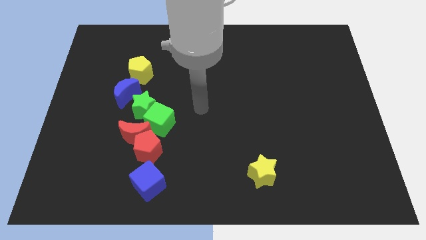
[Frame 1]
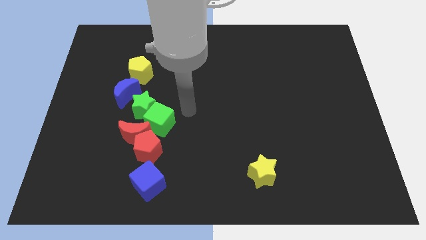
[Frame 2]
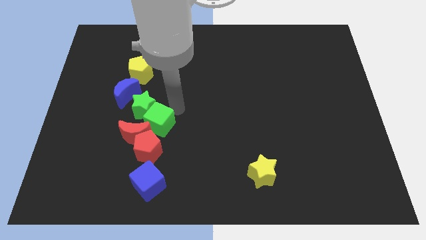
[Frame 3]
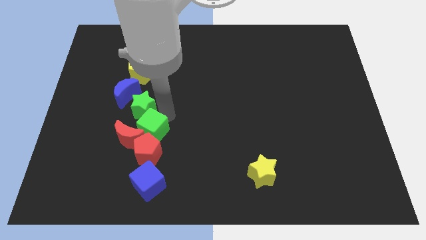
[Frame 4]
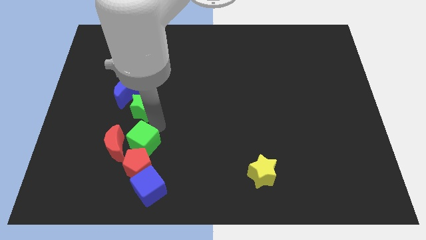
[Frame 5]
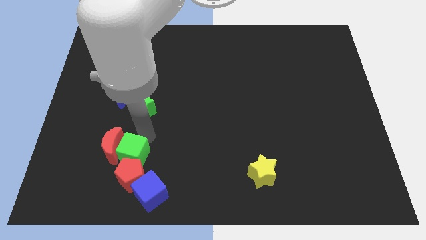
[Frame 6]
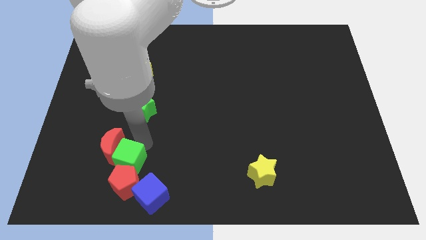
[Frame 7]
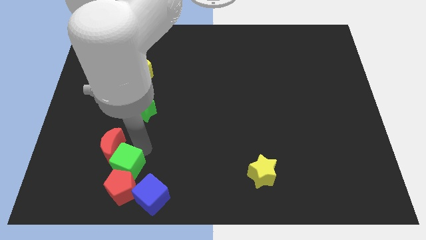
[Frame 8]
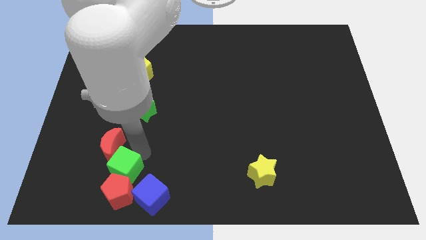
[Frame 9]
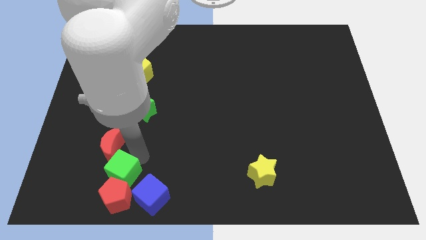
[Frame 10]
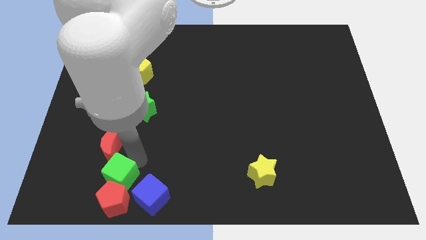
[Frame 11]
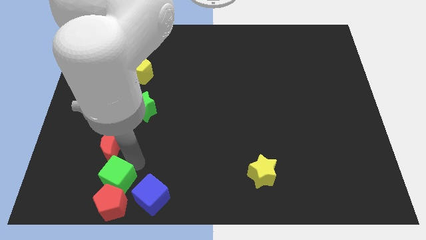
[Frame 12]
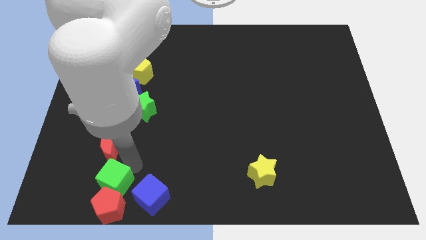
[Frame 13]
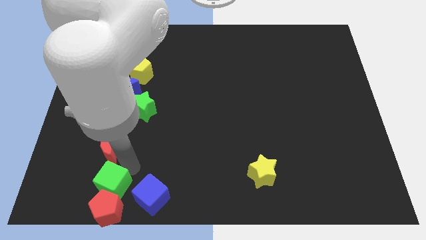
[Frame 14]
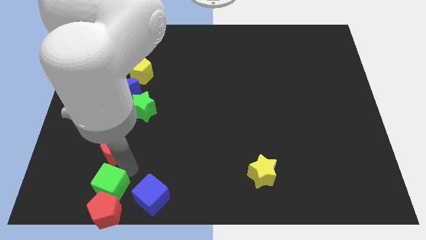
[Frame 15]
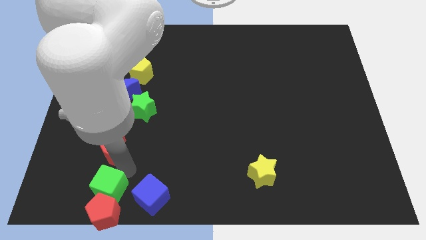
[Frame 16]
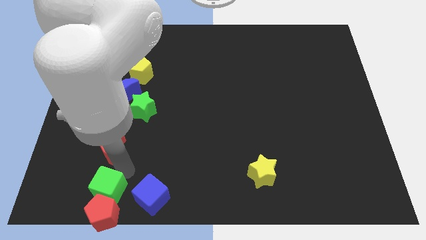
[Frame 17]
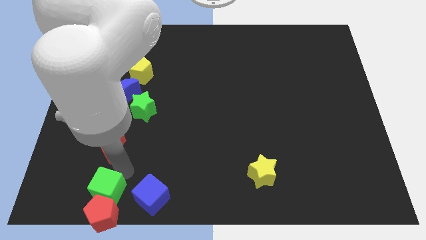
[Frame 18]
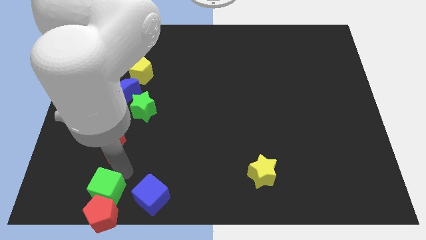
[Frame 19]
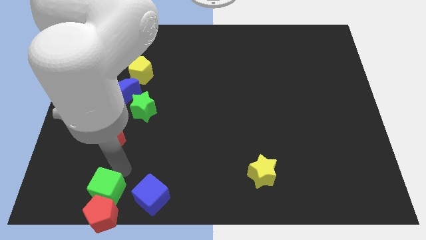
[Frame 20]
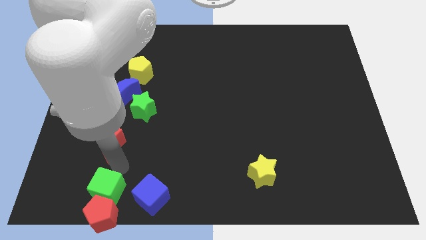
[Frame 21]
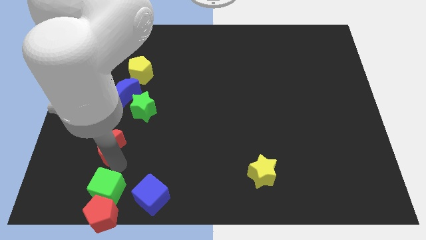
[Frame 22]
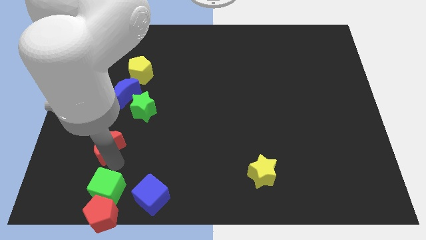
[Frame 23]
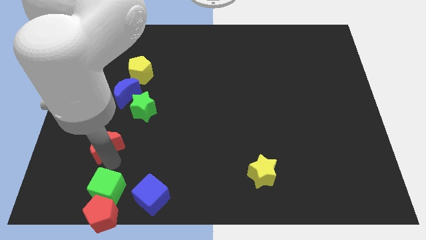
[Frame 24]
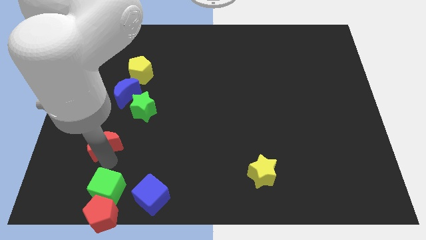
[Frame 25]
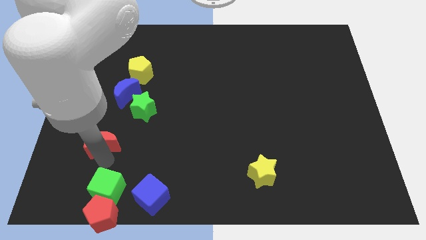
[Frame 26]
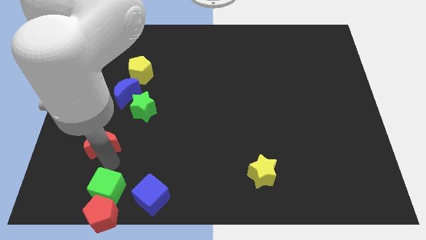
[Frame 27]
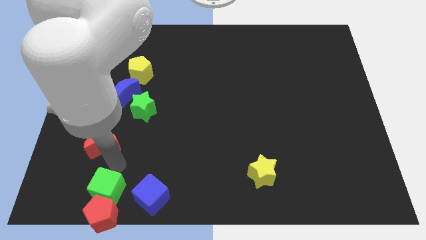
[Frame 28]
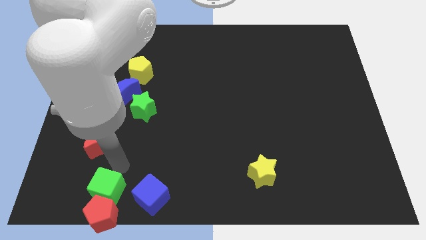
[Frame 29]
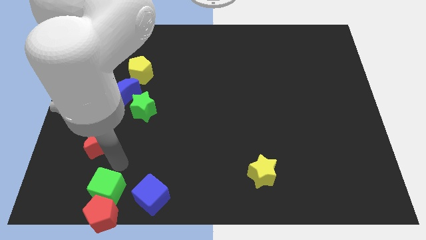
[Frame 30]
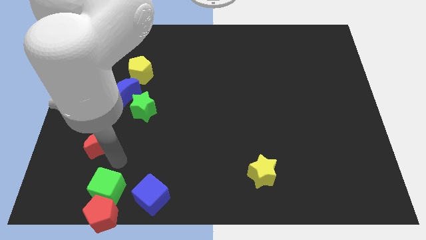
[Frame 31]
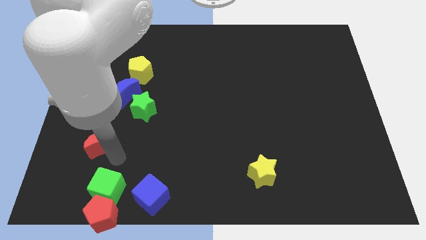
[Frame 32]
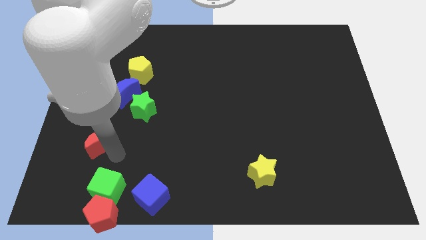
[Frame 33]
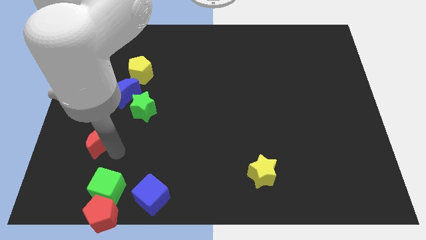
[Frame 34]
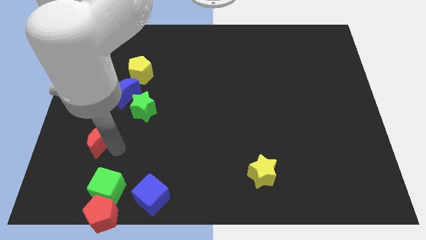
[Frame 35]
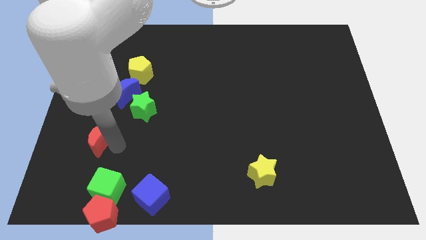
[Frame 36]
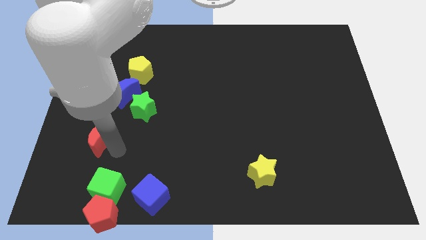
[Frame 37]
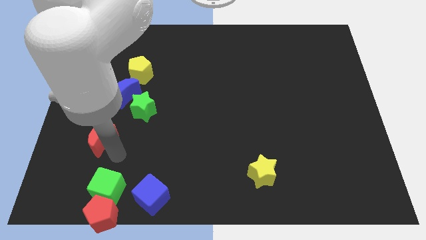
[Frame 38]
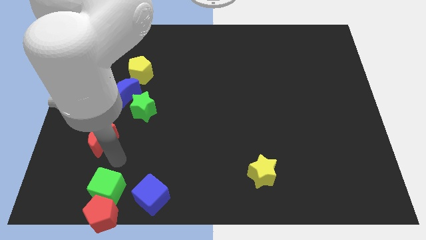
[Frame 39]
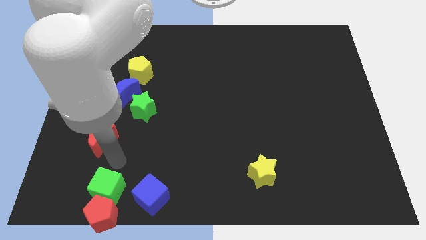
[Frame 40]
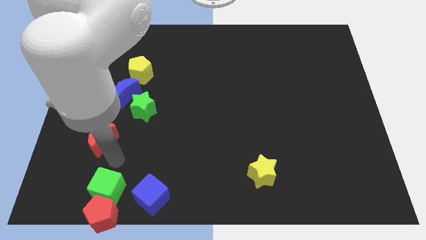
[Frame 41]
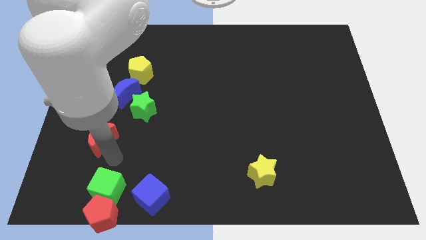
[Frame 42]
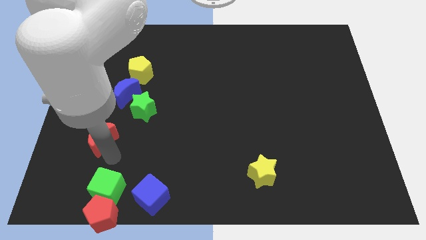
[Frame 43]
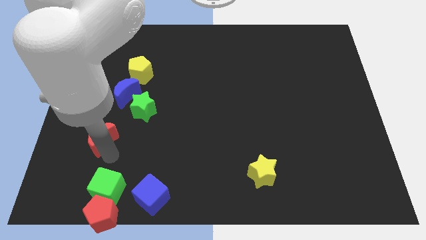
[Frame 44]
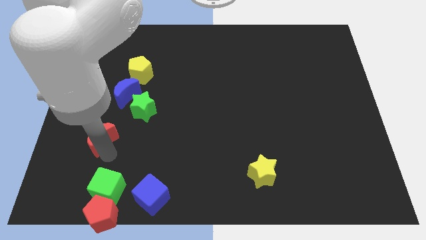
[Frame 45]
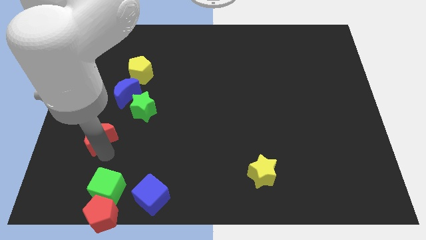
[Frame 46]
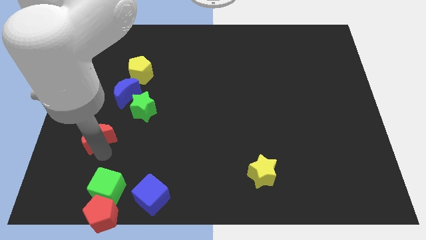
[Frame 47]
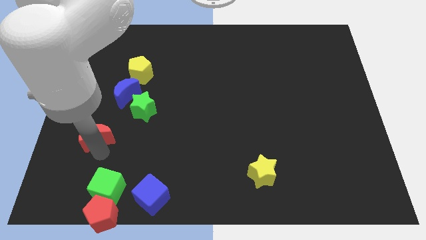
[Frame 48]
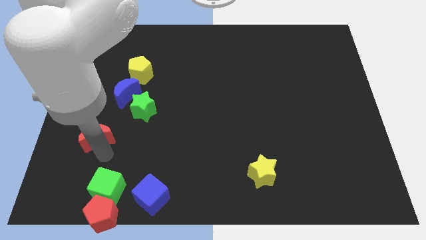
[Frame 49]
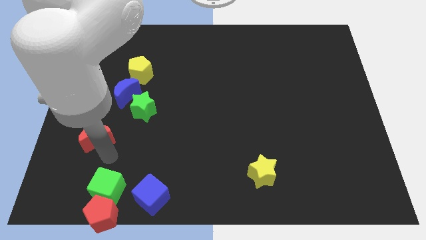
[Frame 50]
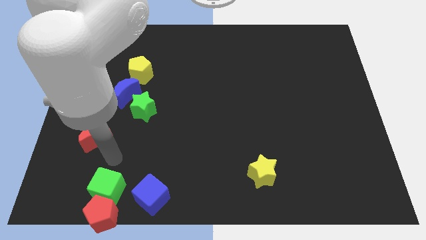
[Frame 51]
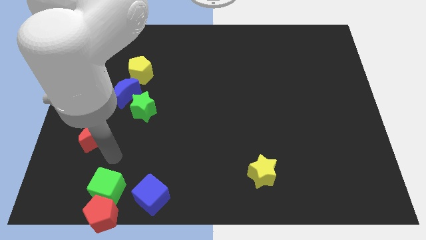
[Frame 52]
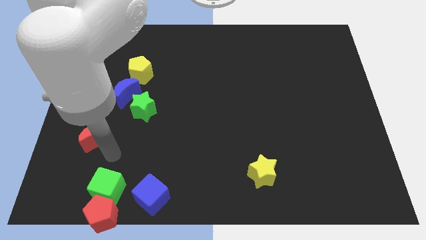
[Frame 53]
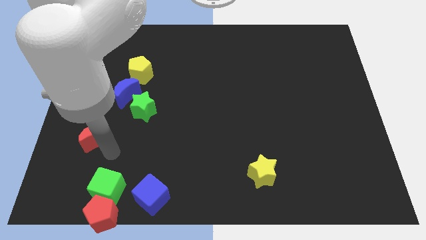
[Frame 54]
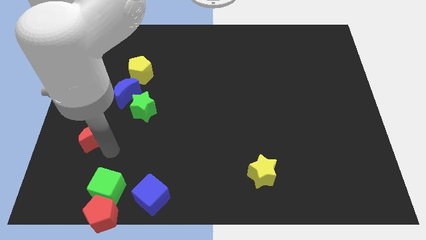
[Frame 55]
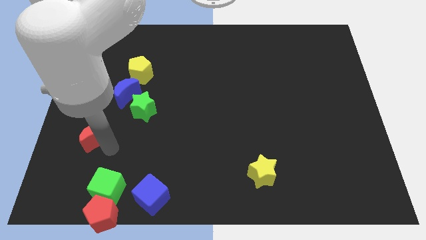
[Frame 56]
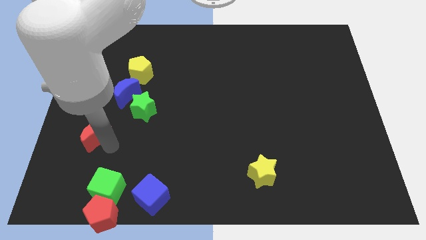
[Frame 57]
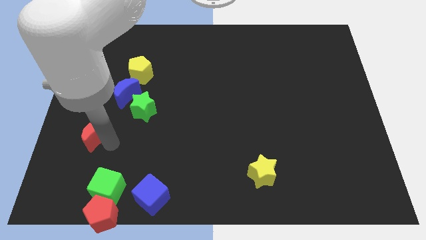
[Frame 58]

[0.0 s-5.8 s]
move the red moon away from the red pentagon, green cube, and green star

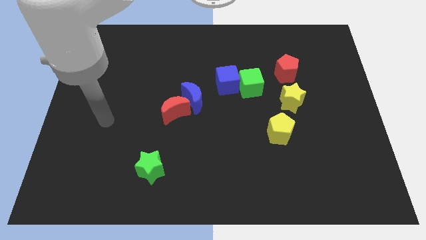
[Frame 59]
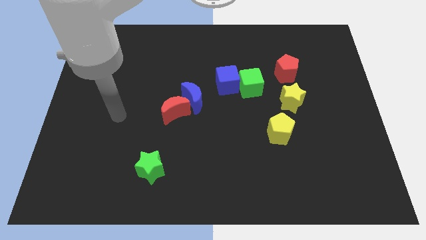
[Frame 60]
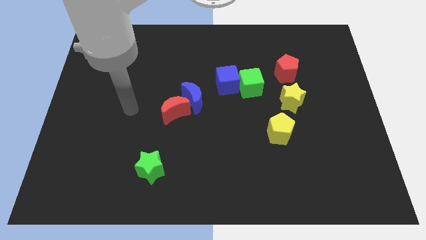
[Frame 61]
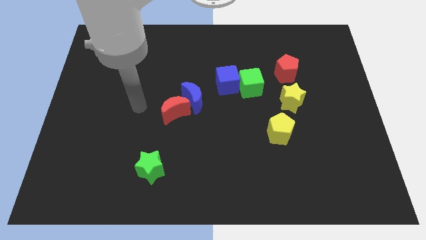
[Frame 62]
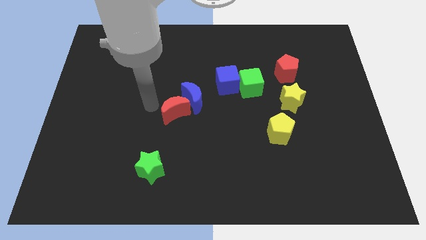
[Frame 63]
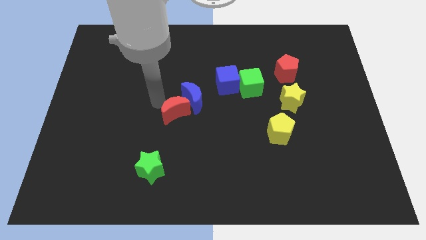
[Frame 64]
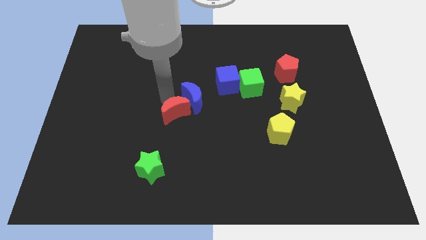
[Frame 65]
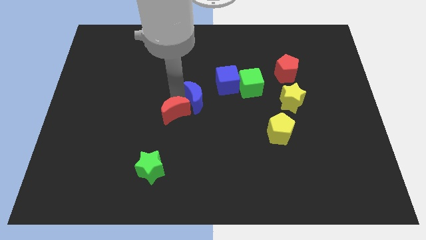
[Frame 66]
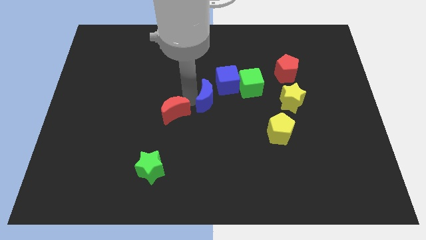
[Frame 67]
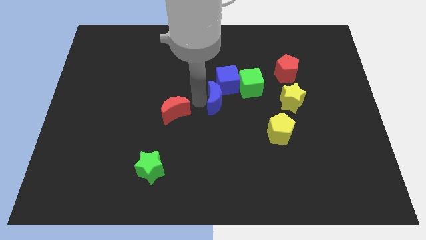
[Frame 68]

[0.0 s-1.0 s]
move the red moon away from the blue moon

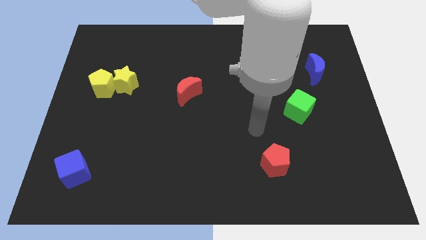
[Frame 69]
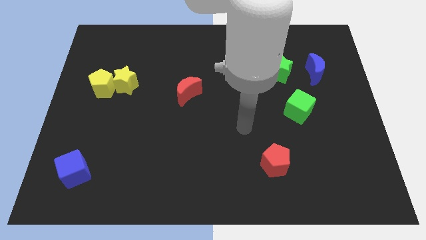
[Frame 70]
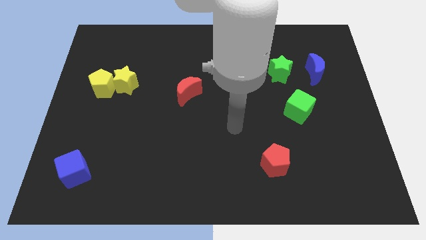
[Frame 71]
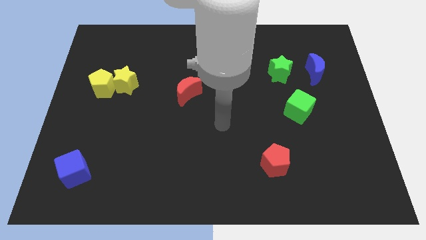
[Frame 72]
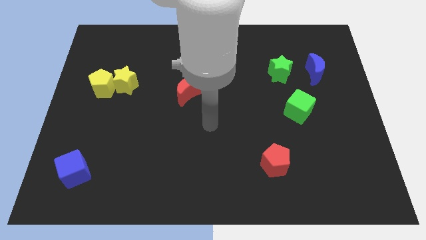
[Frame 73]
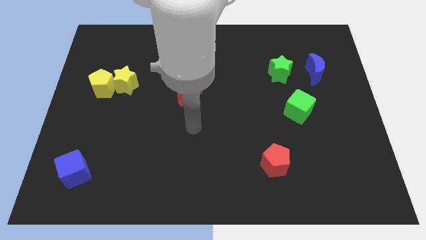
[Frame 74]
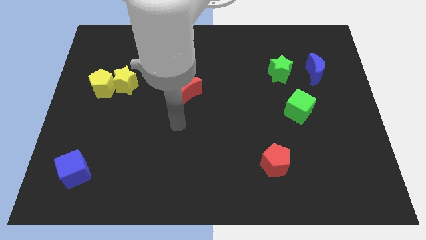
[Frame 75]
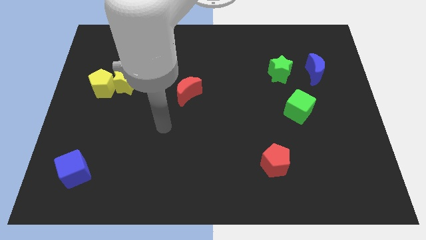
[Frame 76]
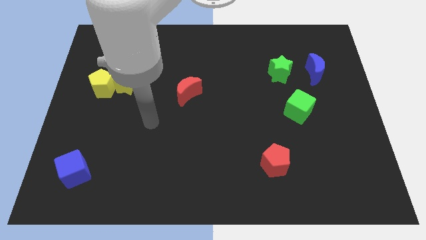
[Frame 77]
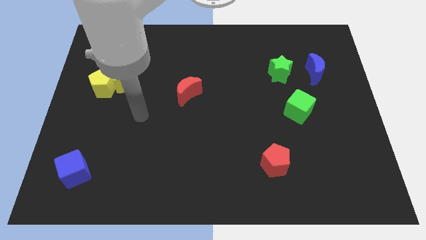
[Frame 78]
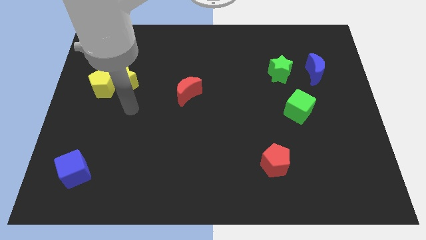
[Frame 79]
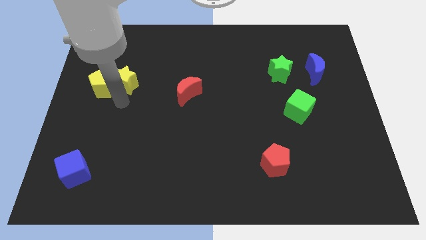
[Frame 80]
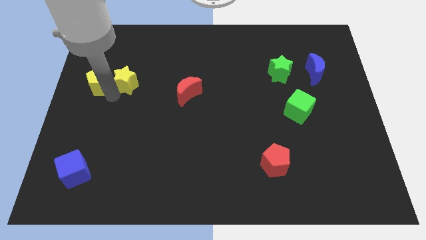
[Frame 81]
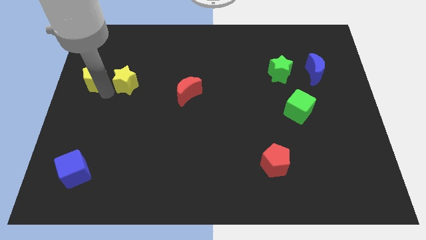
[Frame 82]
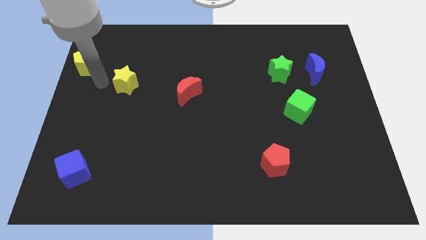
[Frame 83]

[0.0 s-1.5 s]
pull the yellow star apart from the yellow pentagon

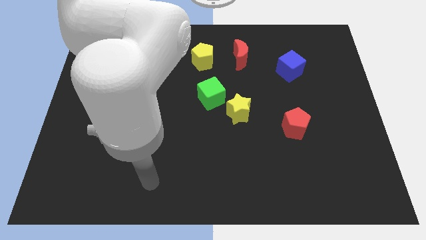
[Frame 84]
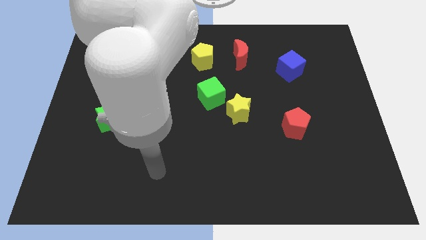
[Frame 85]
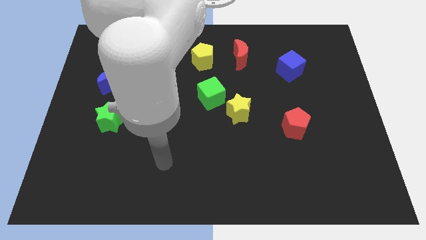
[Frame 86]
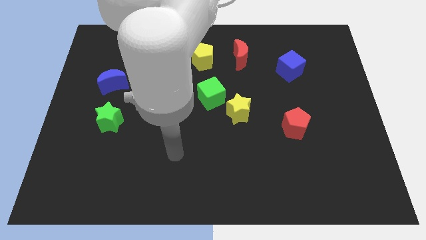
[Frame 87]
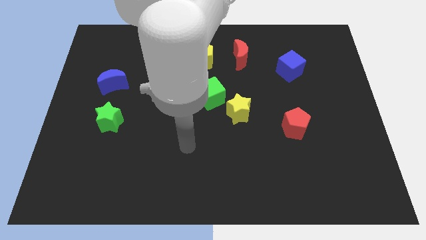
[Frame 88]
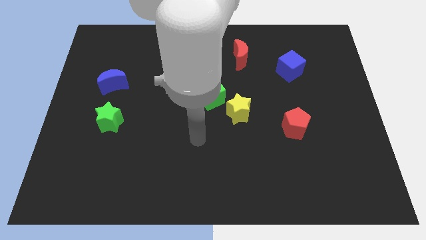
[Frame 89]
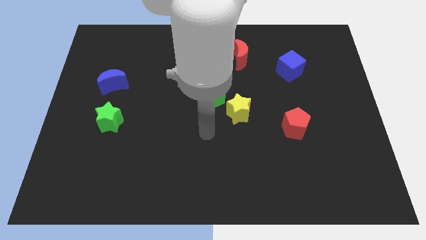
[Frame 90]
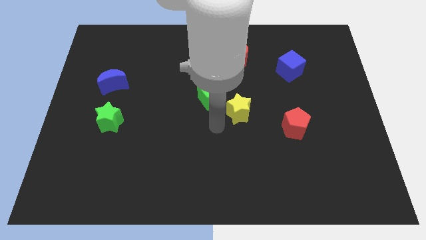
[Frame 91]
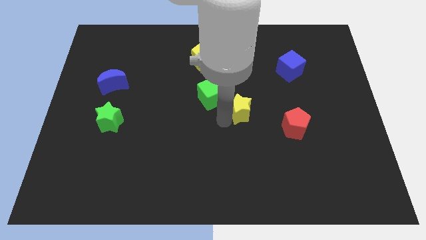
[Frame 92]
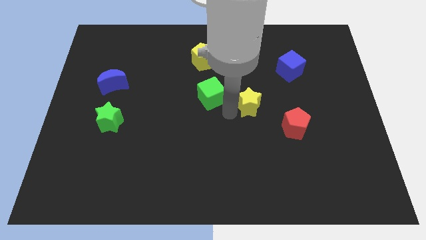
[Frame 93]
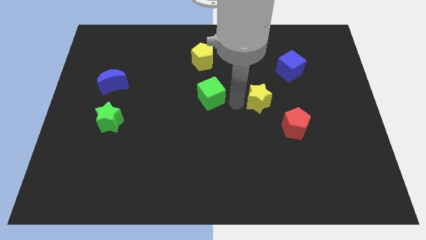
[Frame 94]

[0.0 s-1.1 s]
separate the green cube from the yellow star
